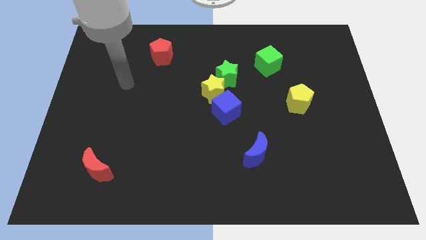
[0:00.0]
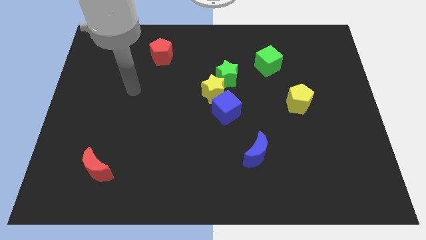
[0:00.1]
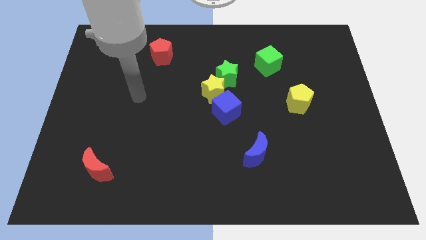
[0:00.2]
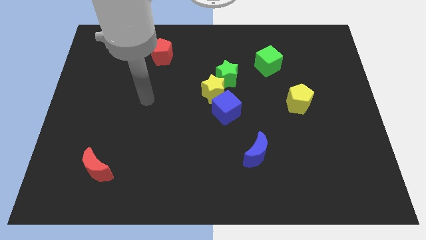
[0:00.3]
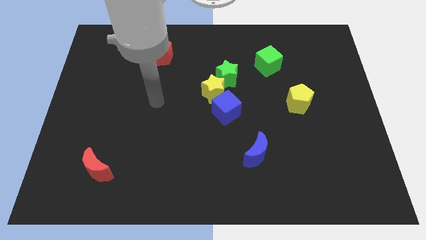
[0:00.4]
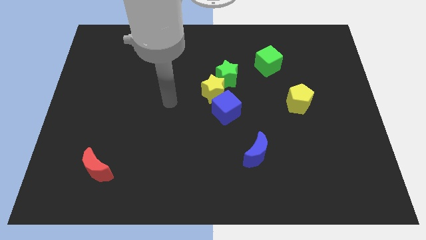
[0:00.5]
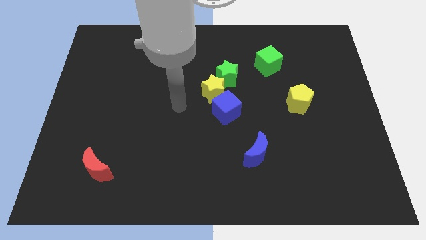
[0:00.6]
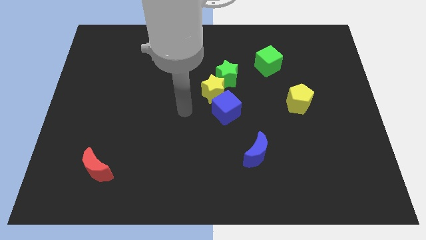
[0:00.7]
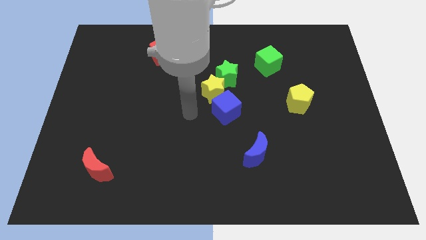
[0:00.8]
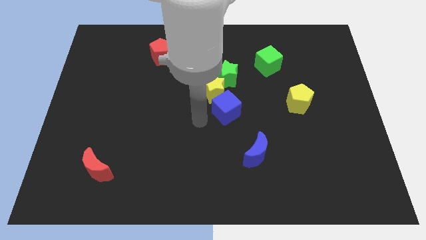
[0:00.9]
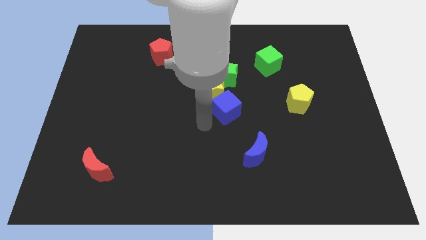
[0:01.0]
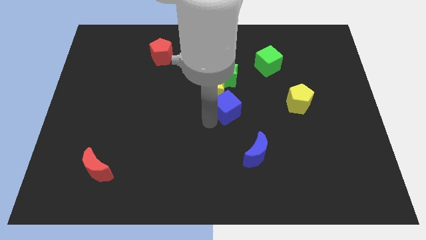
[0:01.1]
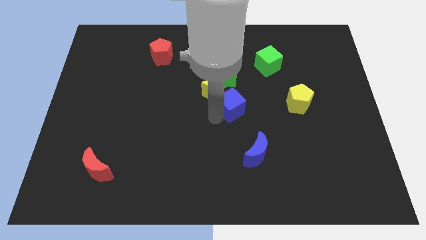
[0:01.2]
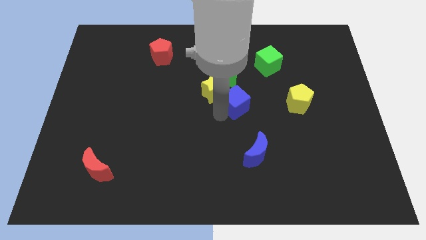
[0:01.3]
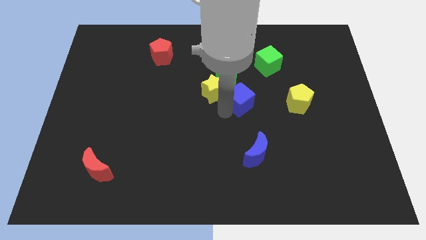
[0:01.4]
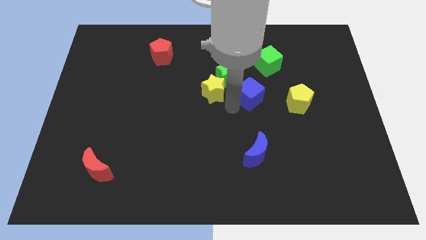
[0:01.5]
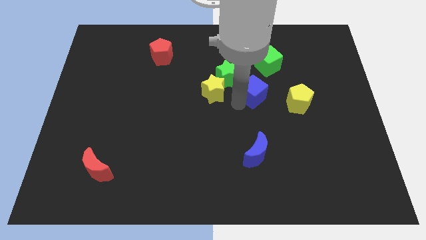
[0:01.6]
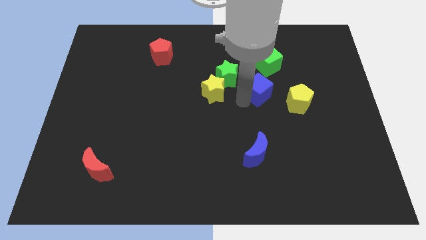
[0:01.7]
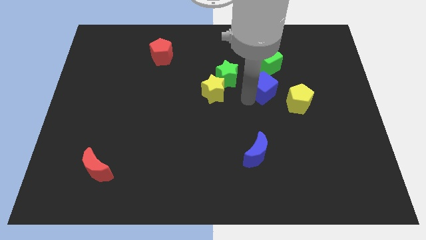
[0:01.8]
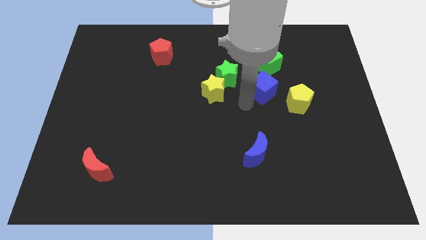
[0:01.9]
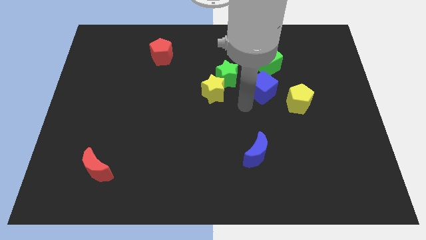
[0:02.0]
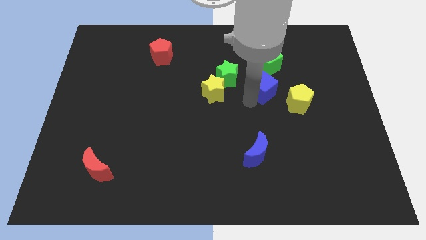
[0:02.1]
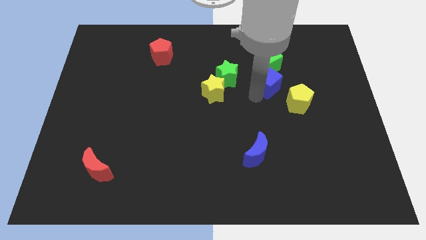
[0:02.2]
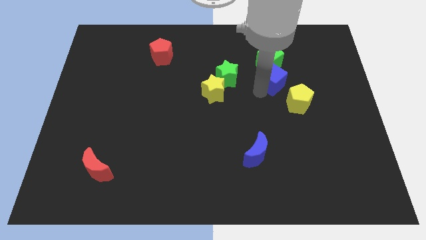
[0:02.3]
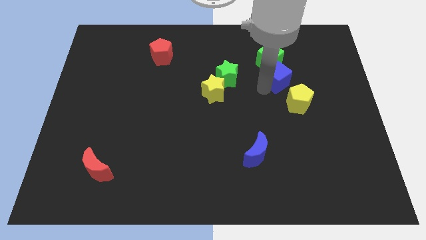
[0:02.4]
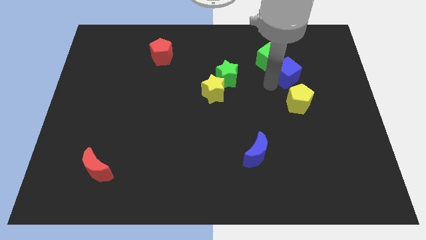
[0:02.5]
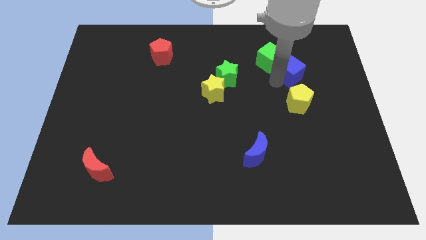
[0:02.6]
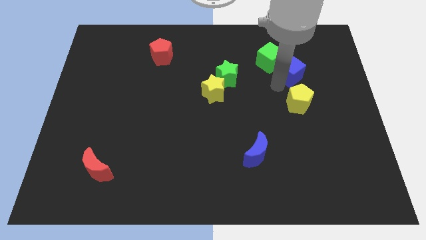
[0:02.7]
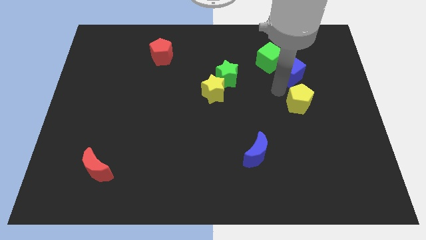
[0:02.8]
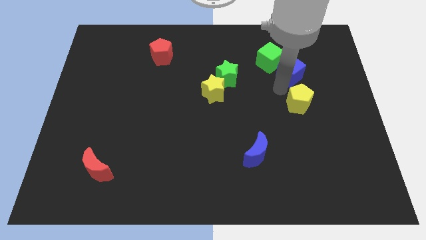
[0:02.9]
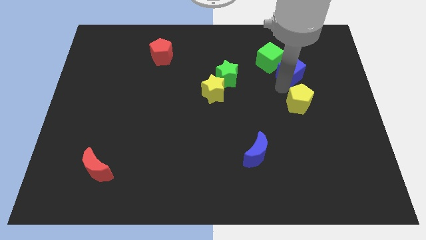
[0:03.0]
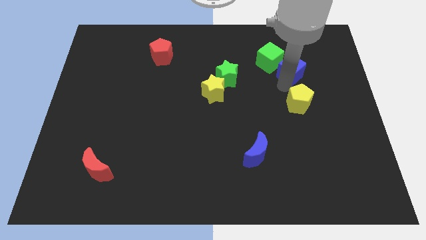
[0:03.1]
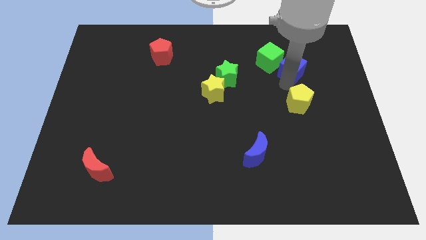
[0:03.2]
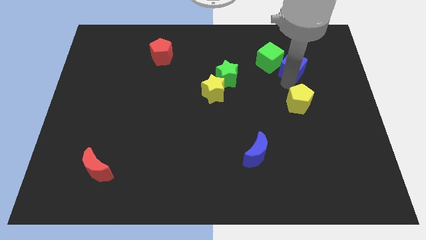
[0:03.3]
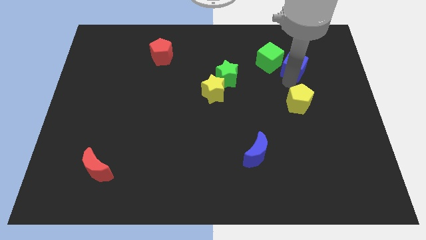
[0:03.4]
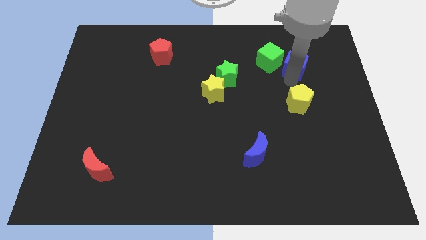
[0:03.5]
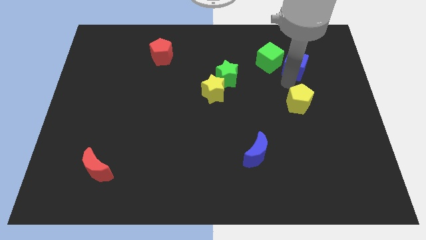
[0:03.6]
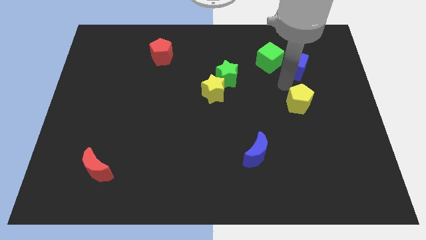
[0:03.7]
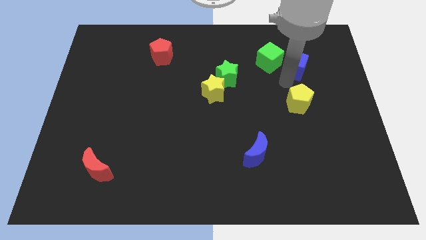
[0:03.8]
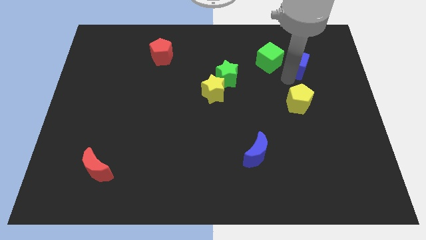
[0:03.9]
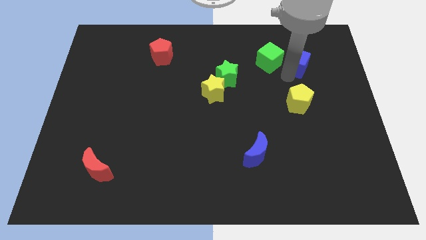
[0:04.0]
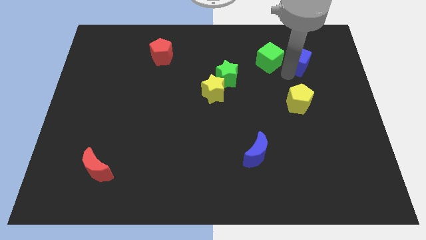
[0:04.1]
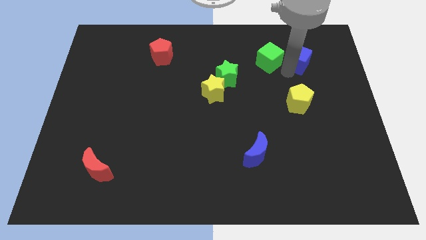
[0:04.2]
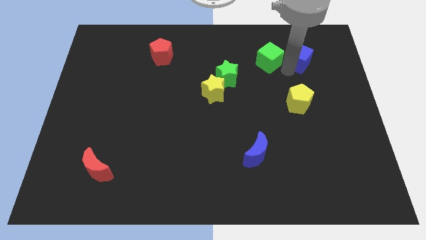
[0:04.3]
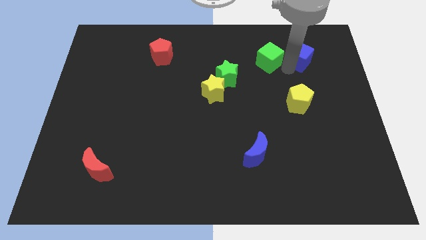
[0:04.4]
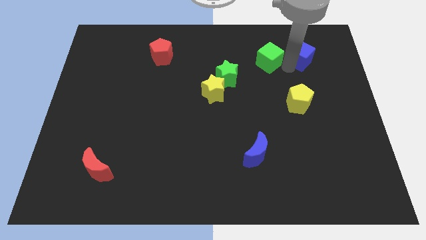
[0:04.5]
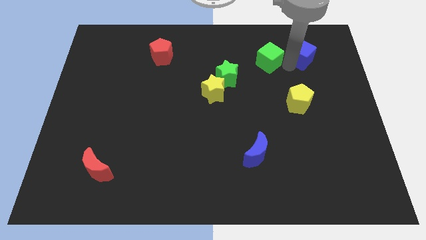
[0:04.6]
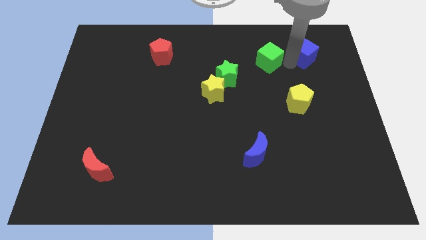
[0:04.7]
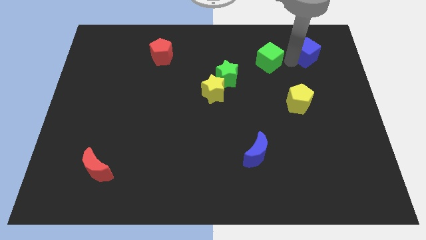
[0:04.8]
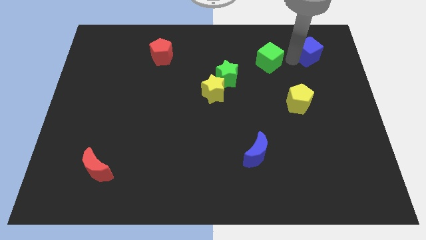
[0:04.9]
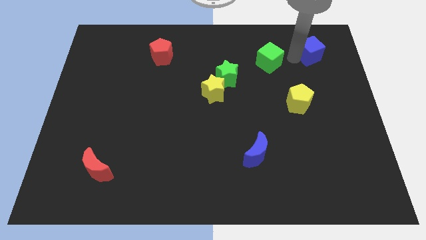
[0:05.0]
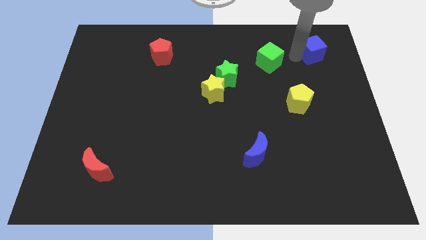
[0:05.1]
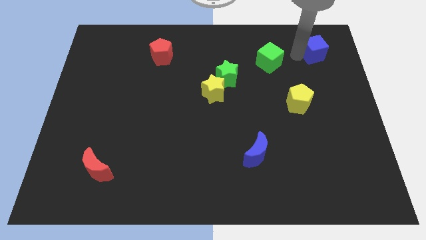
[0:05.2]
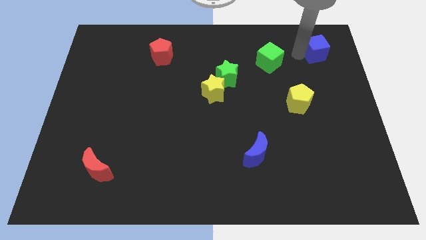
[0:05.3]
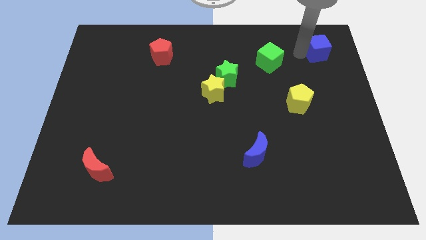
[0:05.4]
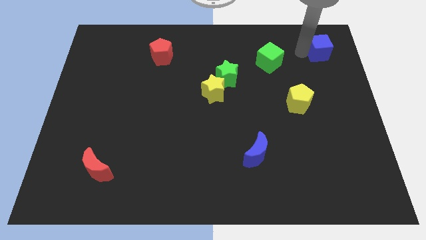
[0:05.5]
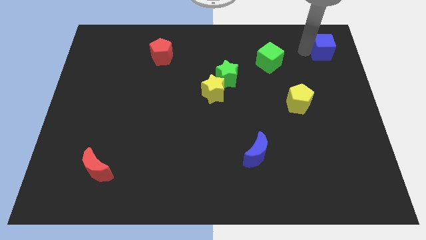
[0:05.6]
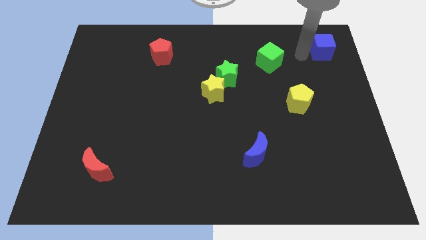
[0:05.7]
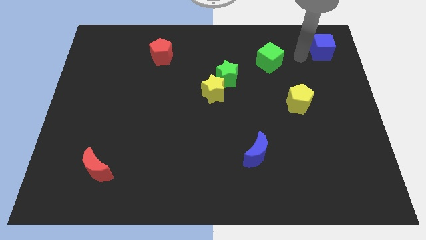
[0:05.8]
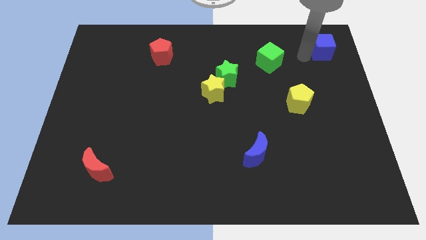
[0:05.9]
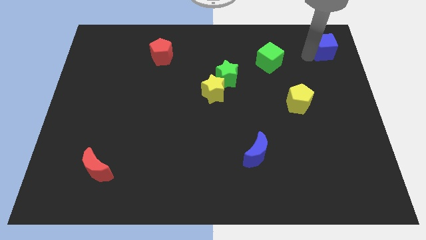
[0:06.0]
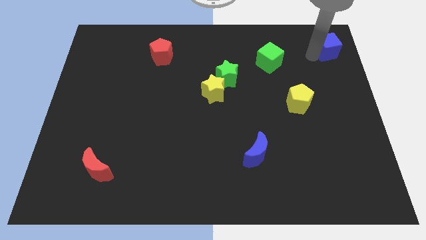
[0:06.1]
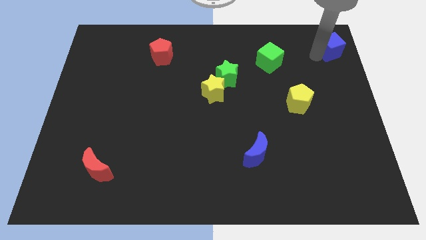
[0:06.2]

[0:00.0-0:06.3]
slide the blue cube to the top right corner
